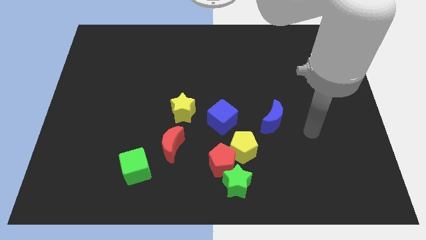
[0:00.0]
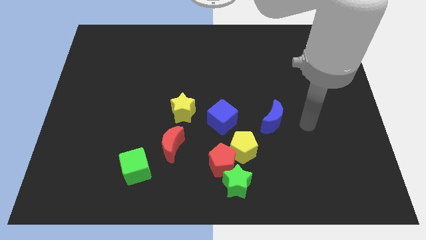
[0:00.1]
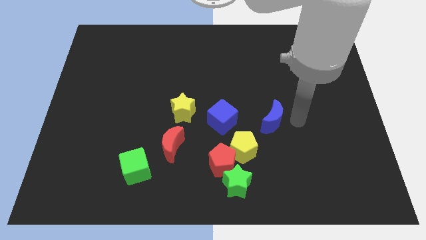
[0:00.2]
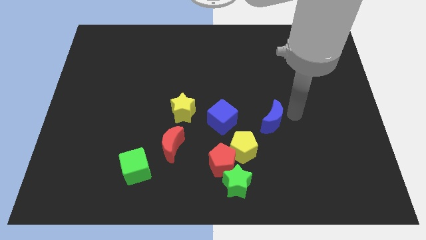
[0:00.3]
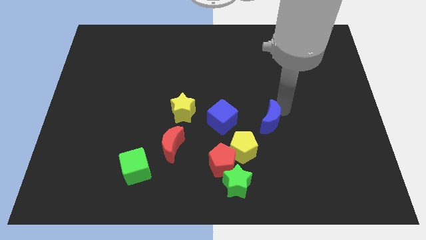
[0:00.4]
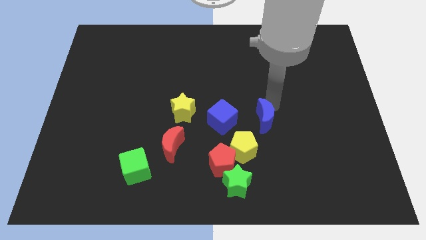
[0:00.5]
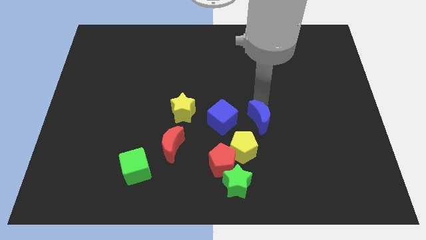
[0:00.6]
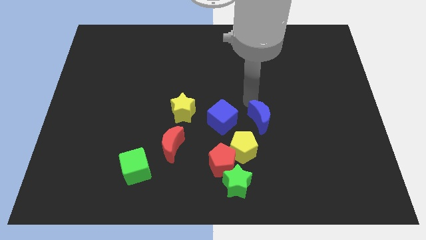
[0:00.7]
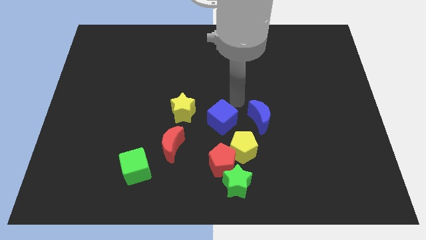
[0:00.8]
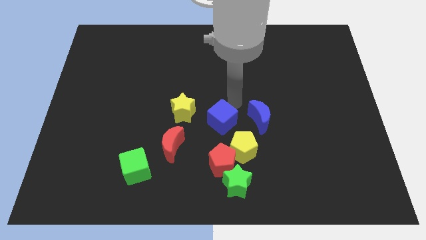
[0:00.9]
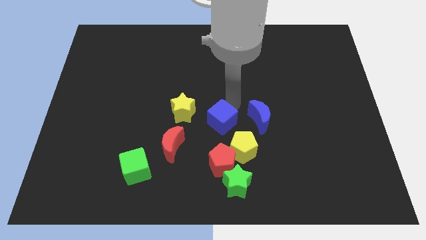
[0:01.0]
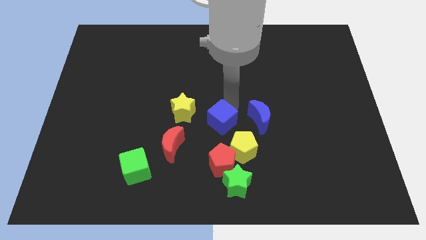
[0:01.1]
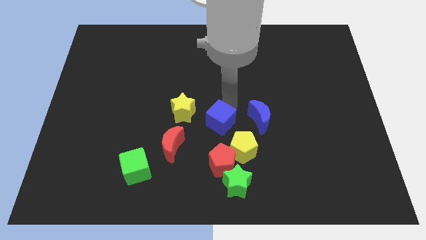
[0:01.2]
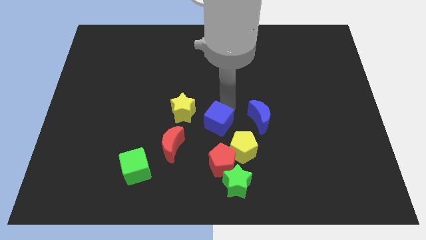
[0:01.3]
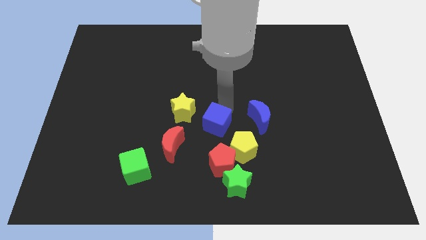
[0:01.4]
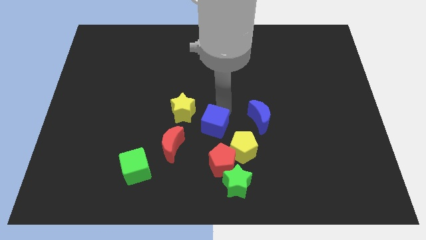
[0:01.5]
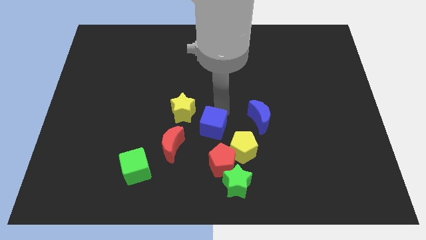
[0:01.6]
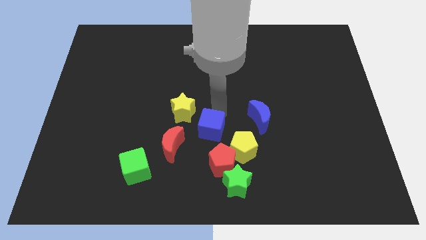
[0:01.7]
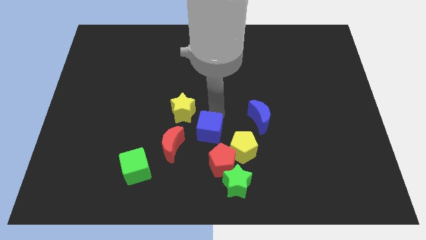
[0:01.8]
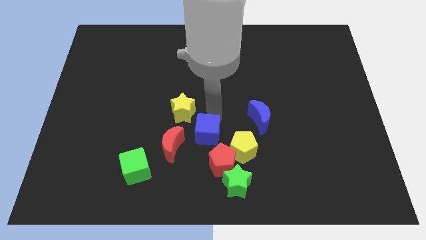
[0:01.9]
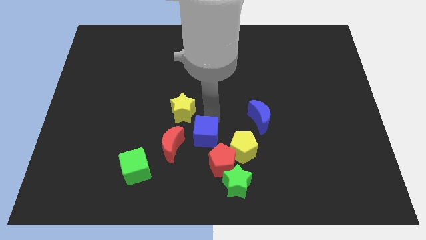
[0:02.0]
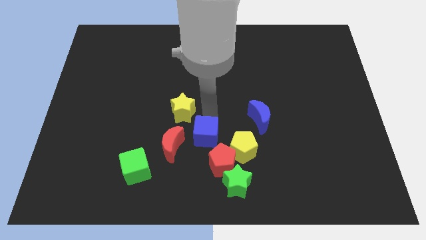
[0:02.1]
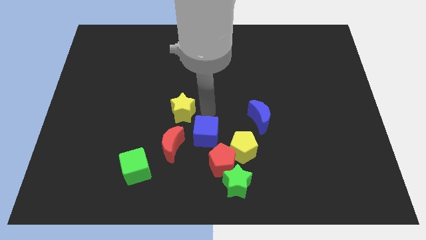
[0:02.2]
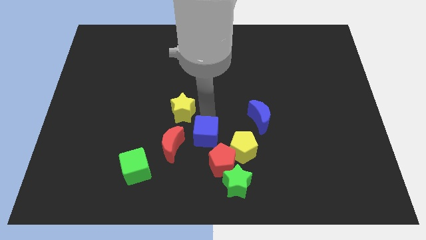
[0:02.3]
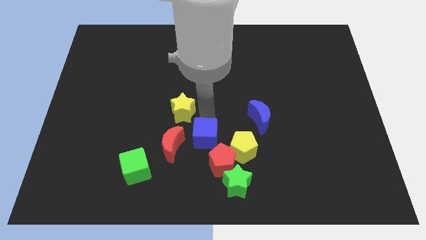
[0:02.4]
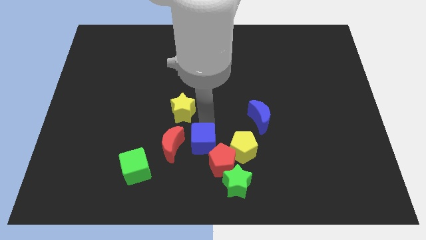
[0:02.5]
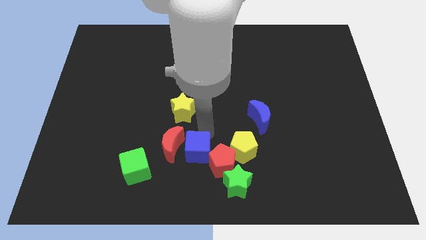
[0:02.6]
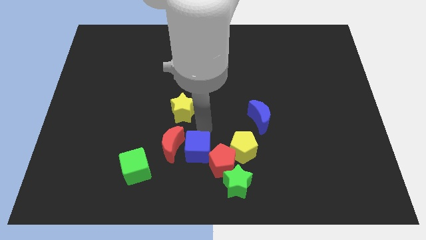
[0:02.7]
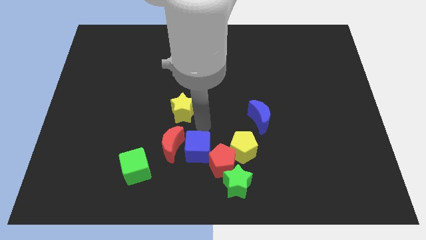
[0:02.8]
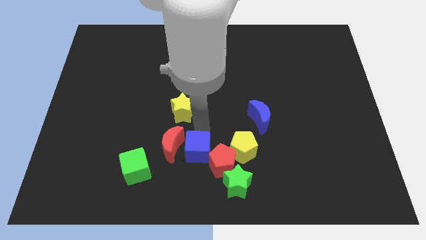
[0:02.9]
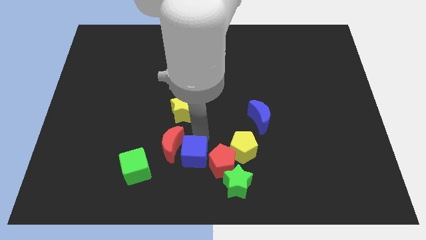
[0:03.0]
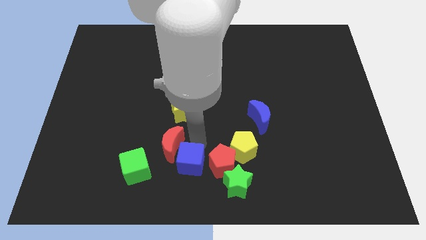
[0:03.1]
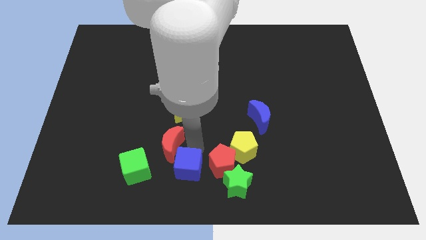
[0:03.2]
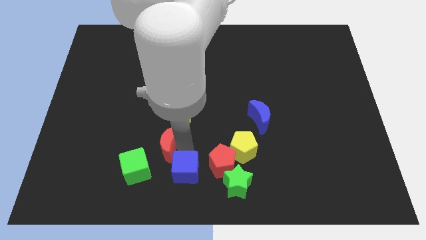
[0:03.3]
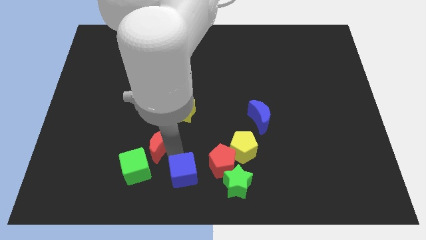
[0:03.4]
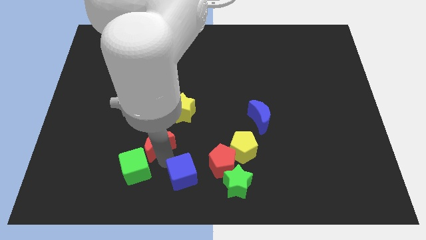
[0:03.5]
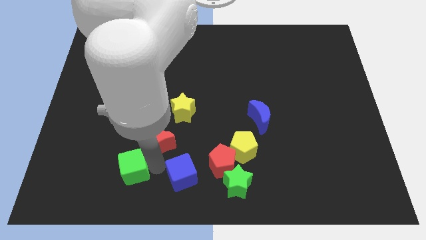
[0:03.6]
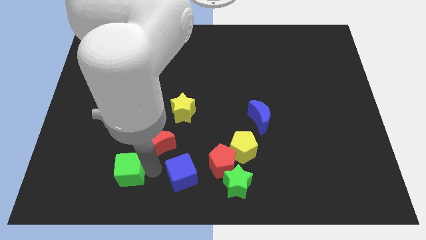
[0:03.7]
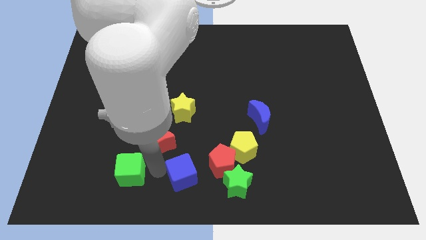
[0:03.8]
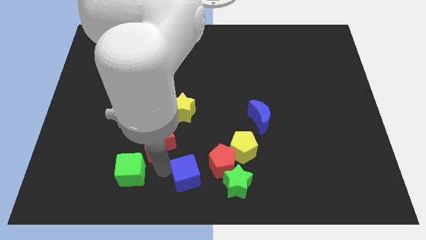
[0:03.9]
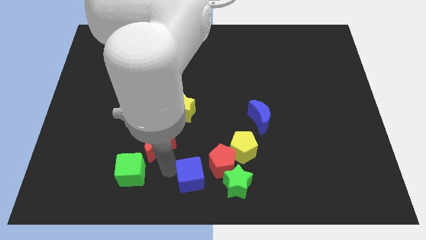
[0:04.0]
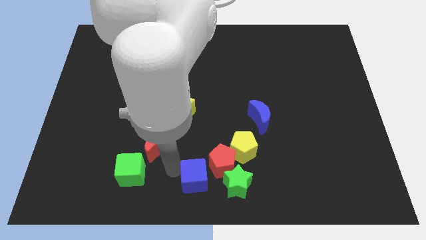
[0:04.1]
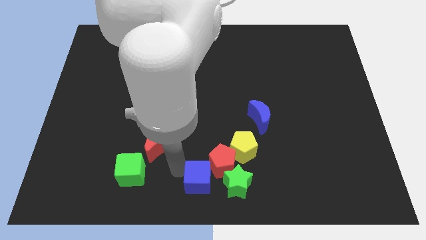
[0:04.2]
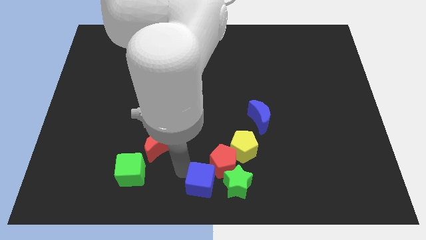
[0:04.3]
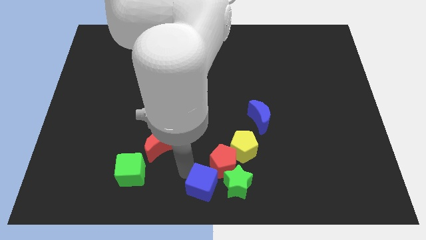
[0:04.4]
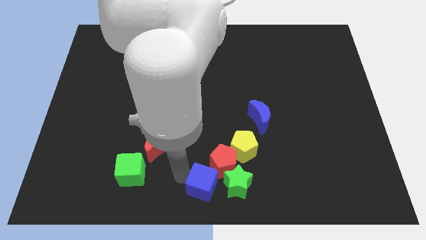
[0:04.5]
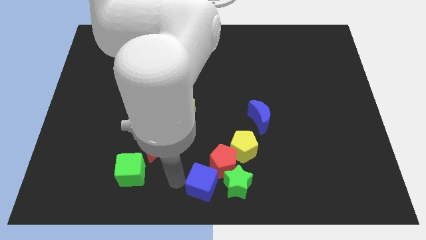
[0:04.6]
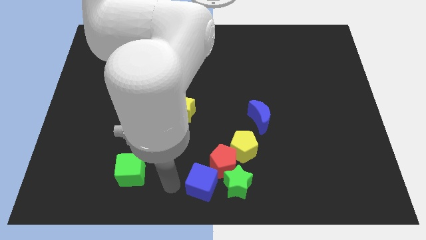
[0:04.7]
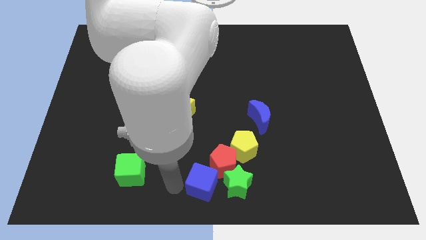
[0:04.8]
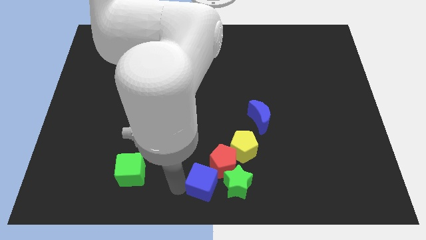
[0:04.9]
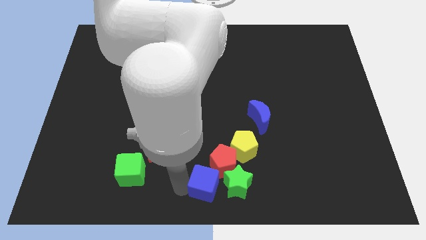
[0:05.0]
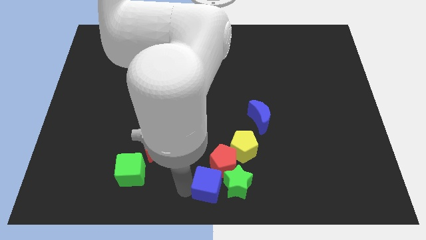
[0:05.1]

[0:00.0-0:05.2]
move the blue cube close to the green star

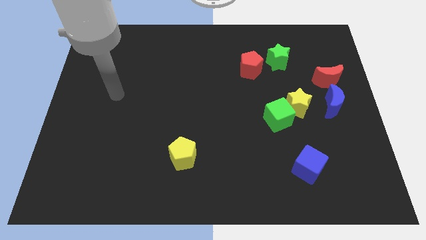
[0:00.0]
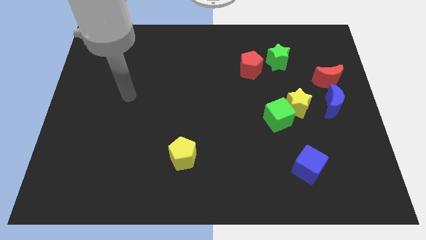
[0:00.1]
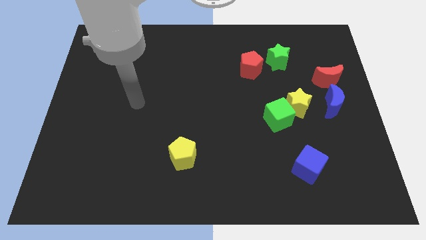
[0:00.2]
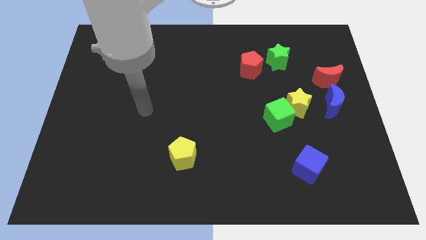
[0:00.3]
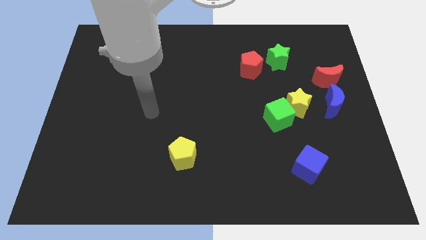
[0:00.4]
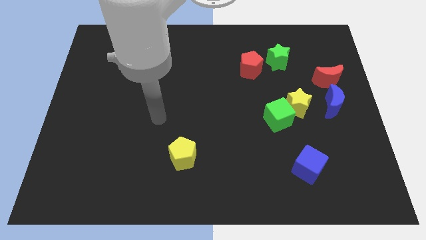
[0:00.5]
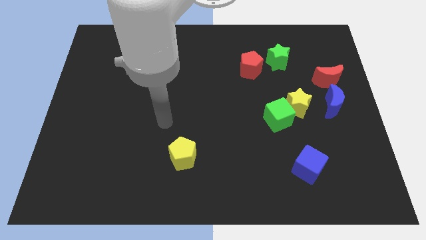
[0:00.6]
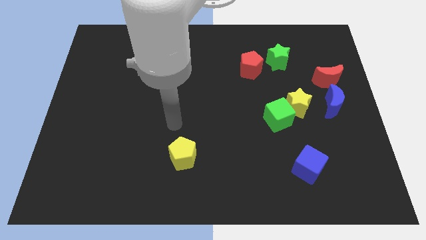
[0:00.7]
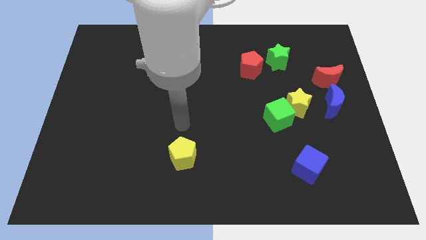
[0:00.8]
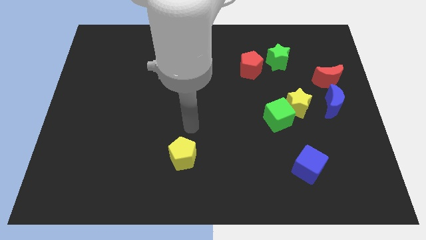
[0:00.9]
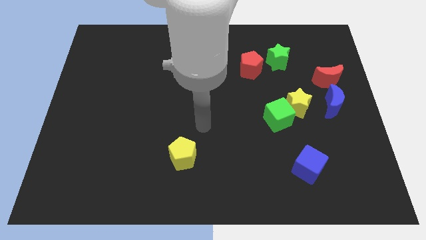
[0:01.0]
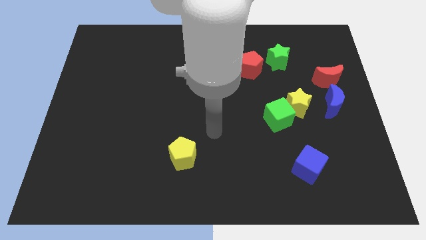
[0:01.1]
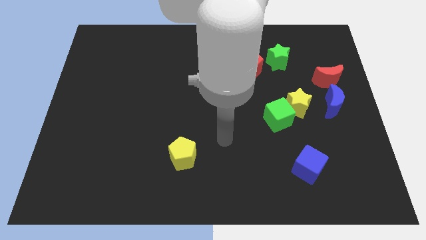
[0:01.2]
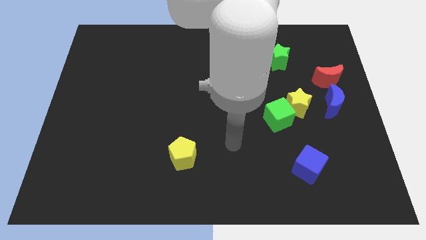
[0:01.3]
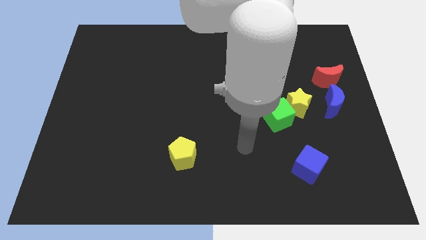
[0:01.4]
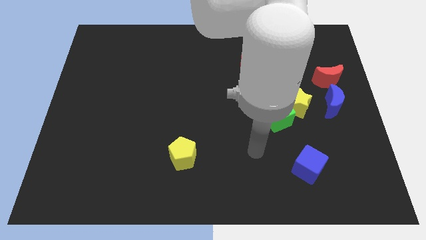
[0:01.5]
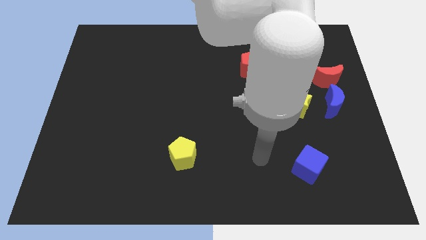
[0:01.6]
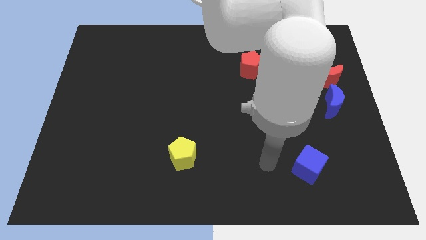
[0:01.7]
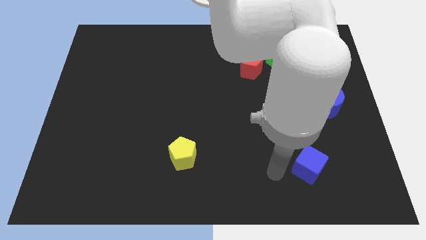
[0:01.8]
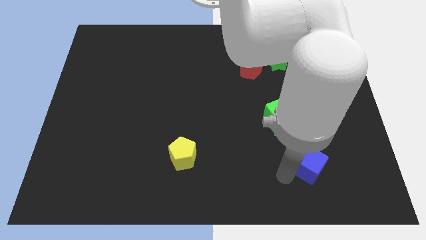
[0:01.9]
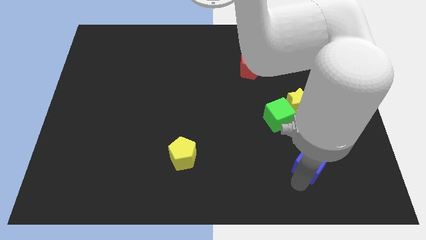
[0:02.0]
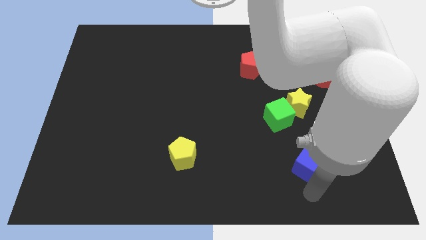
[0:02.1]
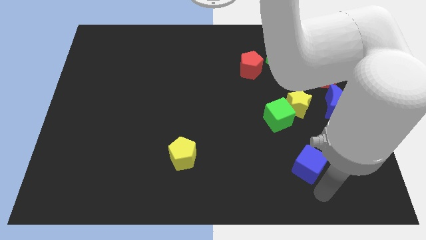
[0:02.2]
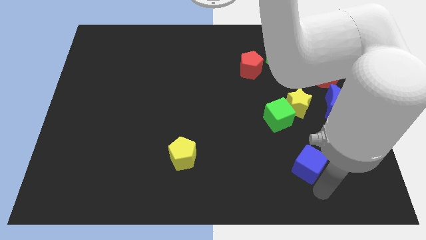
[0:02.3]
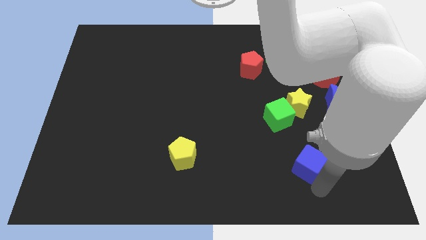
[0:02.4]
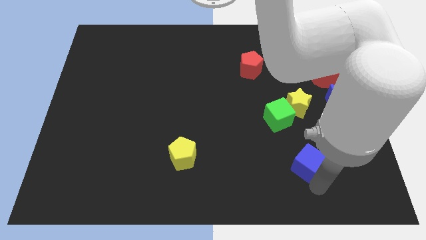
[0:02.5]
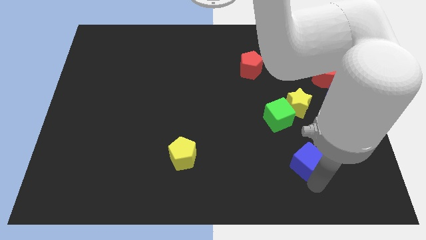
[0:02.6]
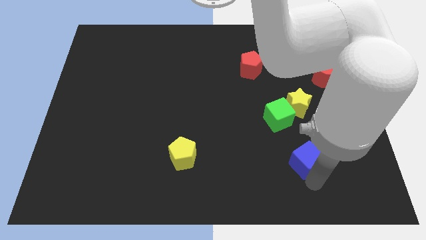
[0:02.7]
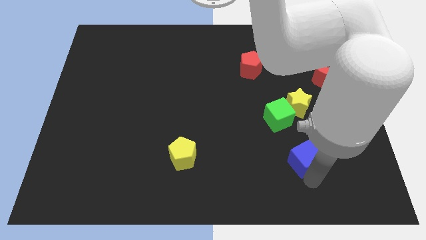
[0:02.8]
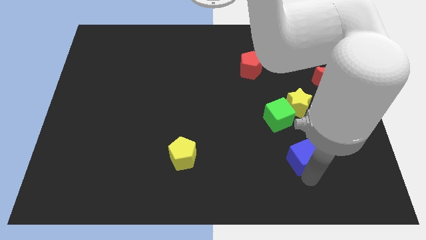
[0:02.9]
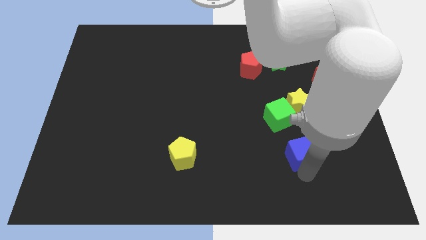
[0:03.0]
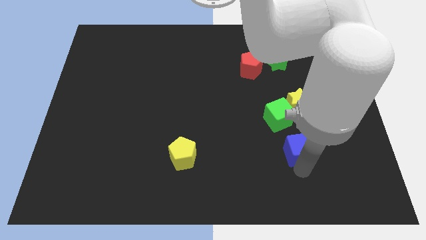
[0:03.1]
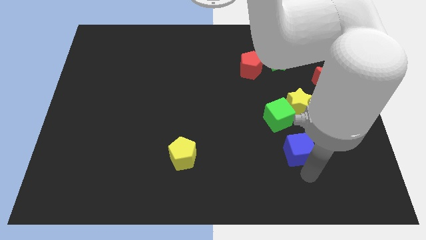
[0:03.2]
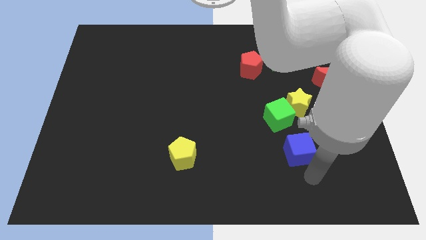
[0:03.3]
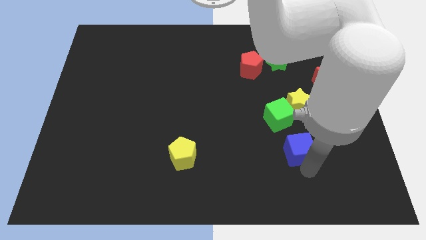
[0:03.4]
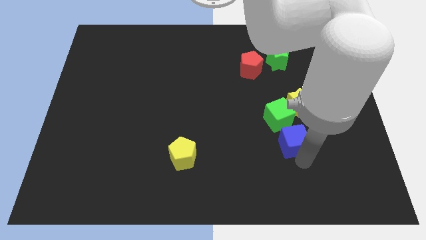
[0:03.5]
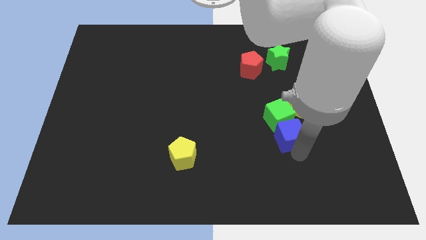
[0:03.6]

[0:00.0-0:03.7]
push the blue cube close to the green cube
